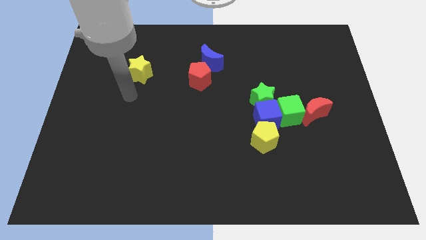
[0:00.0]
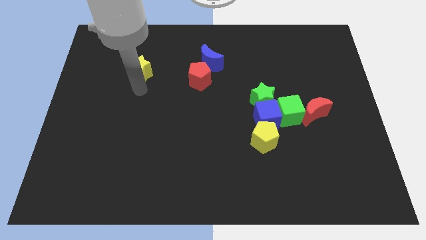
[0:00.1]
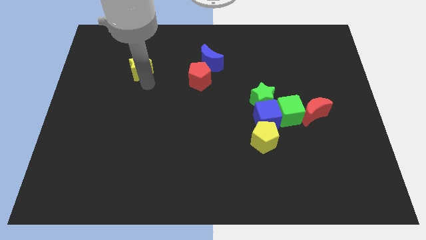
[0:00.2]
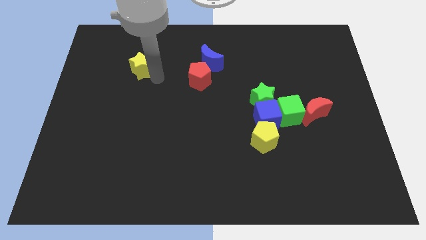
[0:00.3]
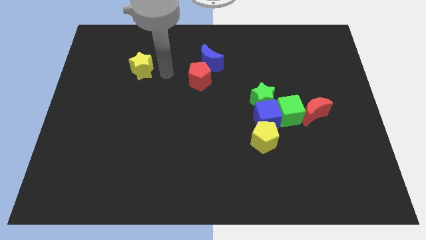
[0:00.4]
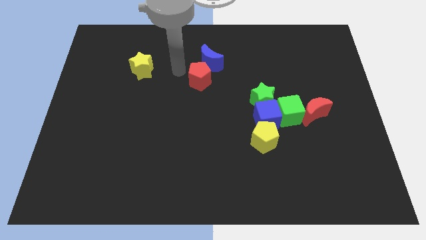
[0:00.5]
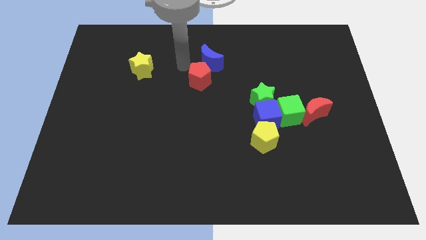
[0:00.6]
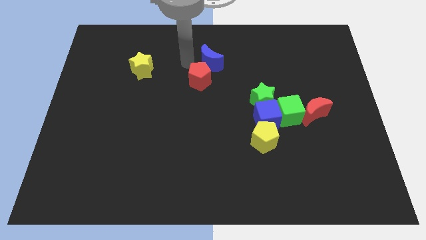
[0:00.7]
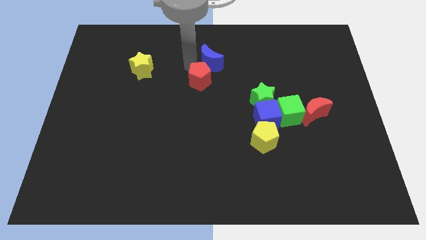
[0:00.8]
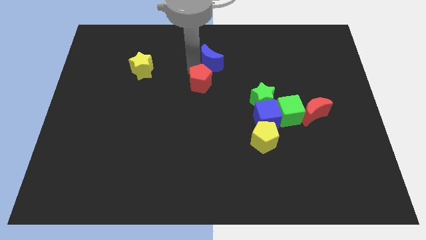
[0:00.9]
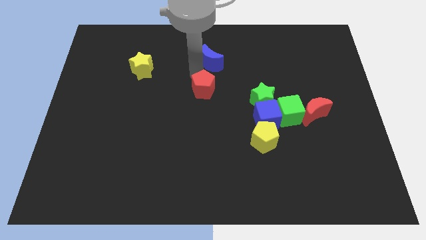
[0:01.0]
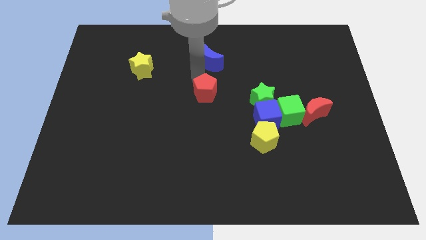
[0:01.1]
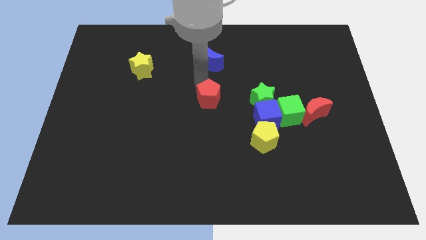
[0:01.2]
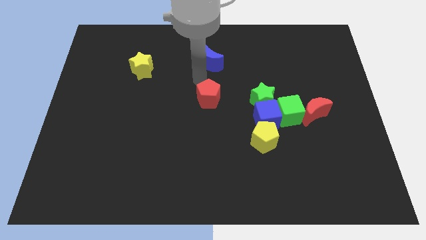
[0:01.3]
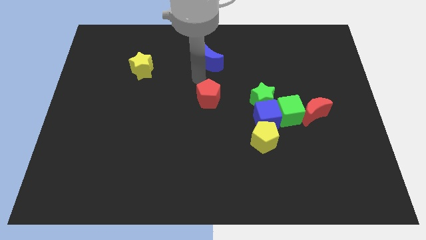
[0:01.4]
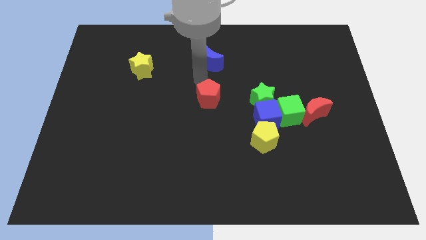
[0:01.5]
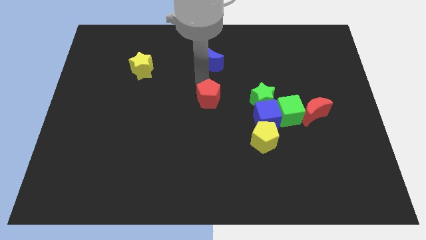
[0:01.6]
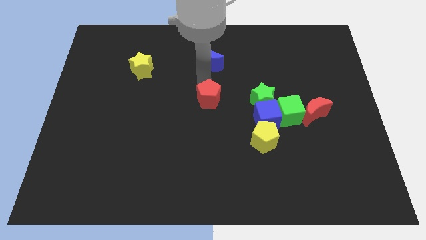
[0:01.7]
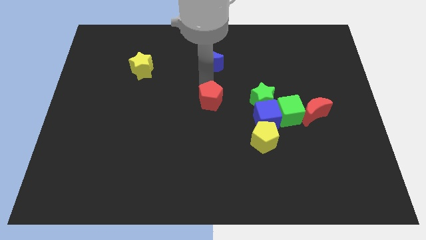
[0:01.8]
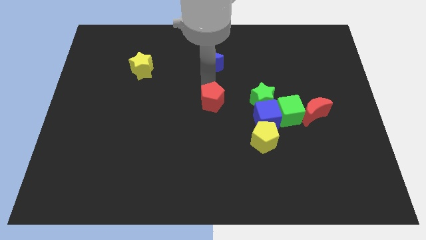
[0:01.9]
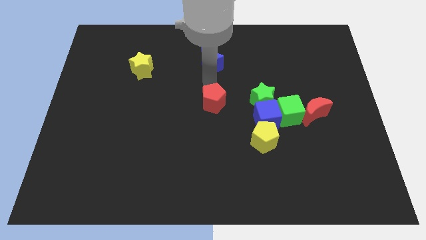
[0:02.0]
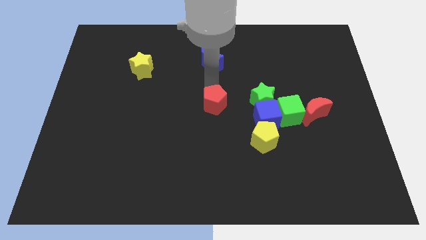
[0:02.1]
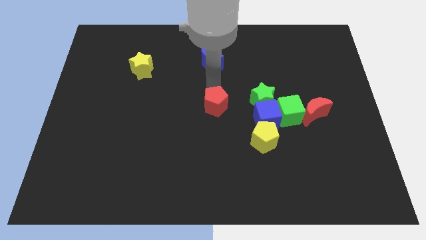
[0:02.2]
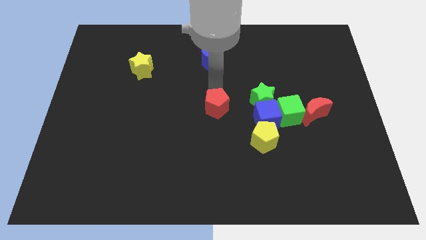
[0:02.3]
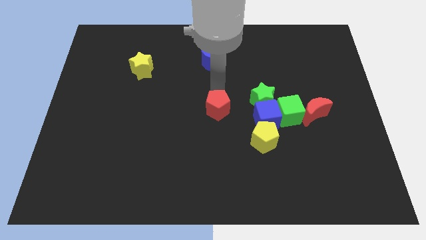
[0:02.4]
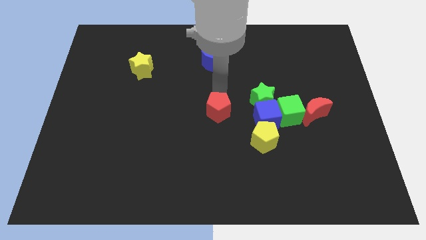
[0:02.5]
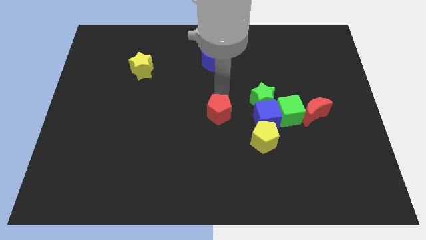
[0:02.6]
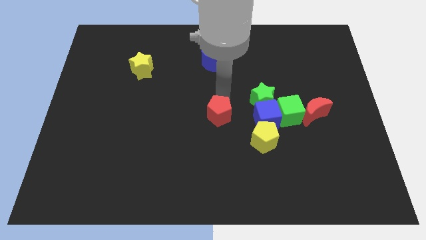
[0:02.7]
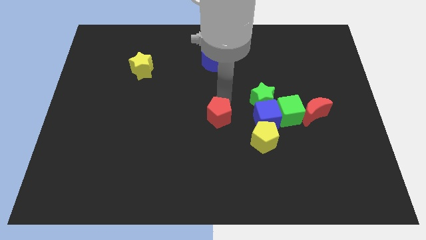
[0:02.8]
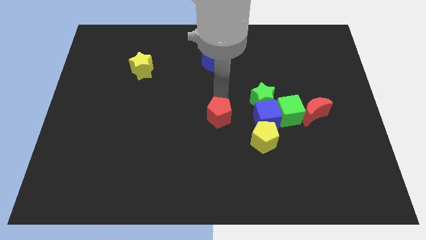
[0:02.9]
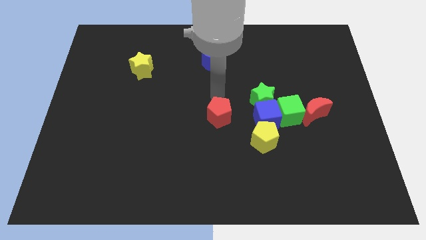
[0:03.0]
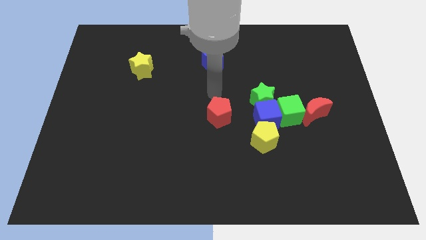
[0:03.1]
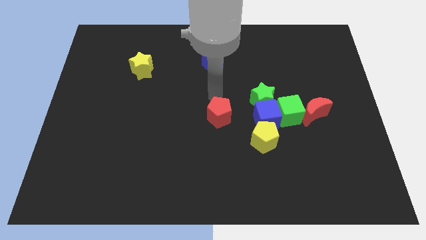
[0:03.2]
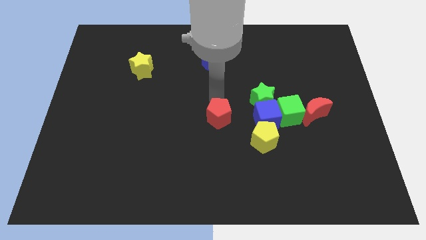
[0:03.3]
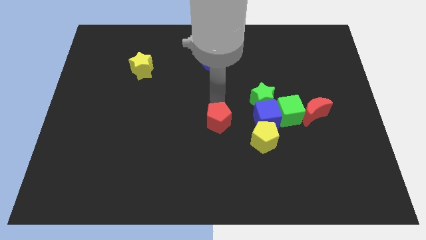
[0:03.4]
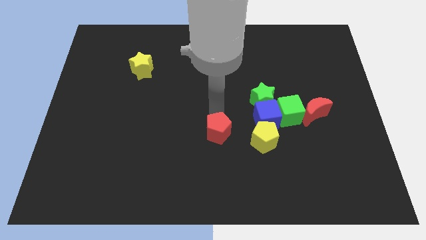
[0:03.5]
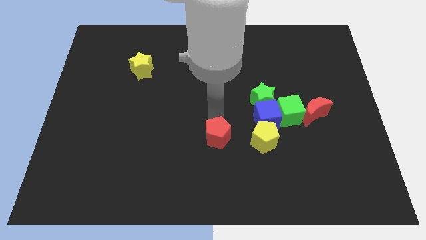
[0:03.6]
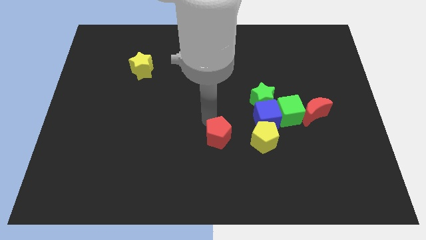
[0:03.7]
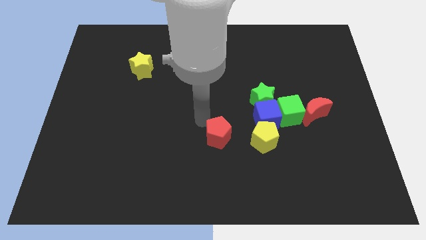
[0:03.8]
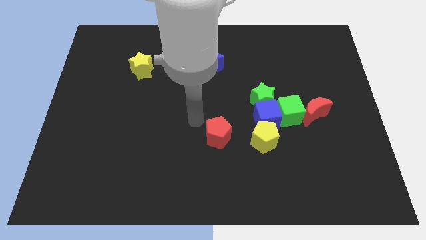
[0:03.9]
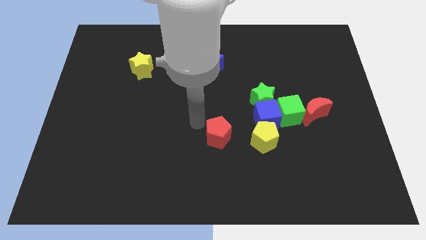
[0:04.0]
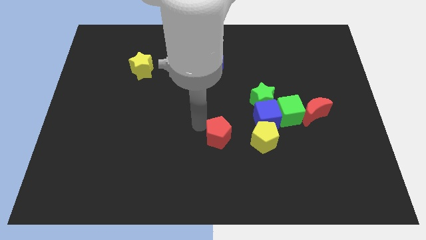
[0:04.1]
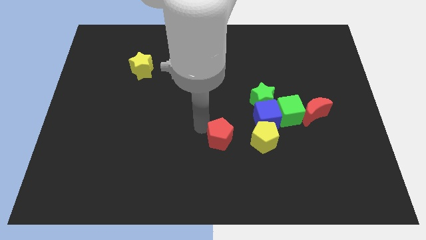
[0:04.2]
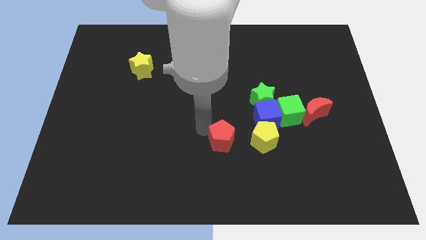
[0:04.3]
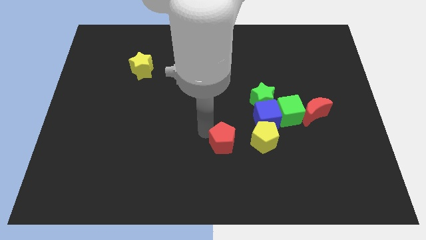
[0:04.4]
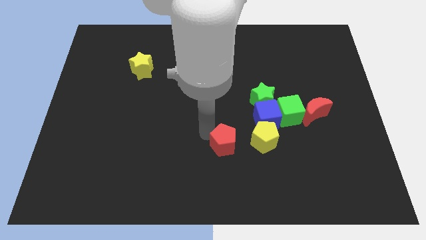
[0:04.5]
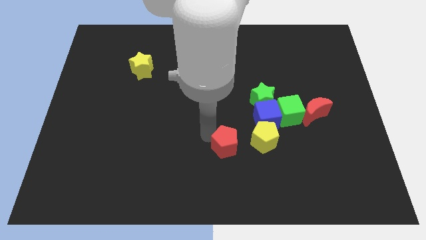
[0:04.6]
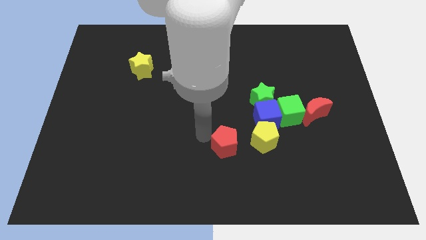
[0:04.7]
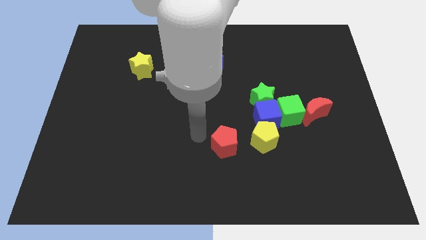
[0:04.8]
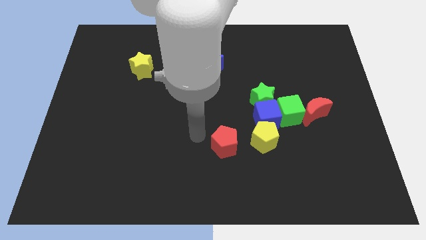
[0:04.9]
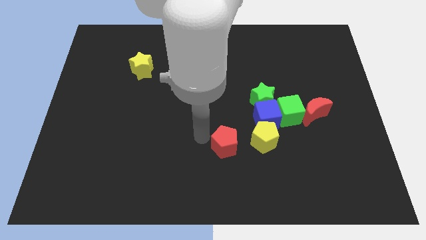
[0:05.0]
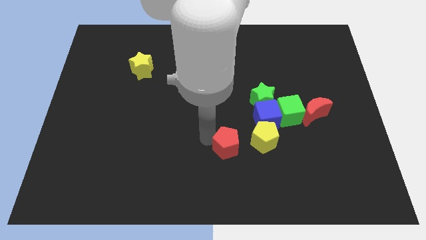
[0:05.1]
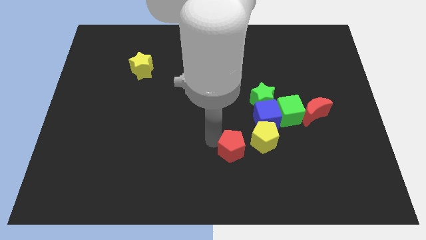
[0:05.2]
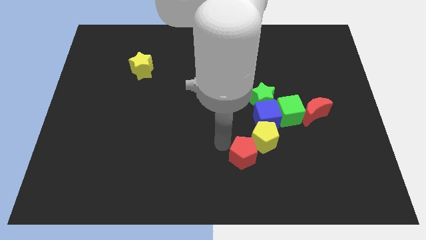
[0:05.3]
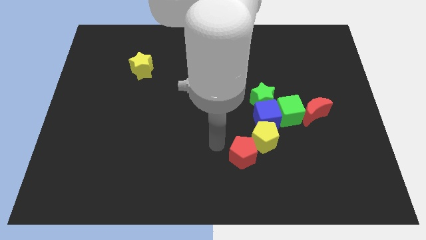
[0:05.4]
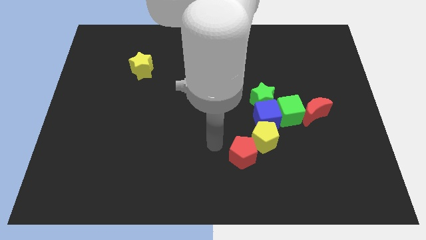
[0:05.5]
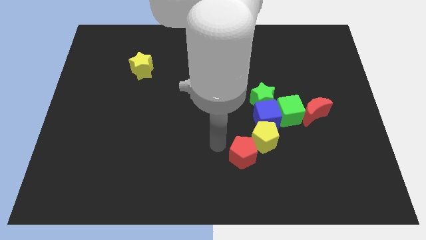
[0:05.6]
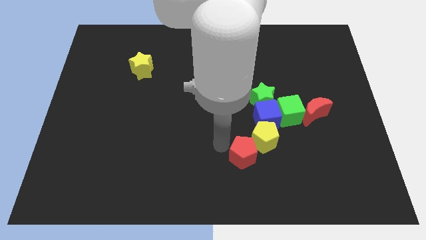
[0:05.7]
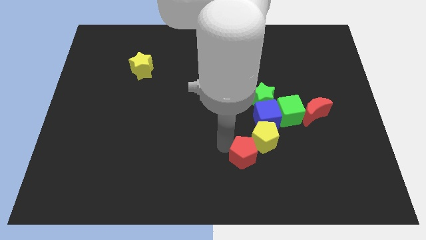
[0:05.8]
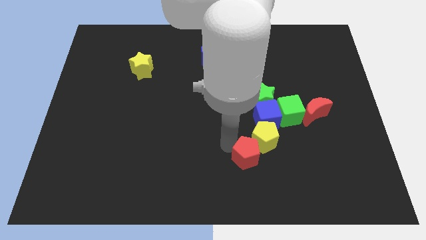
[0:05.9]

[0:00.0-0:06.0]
slide the red pentagon diagonally downwards and to the right

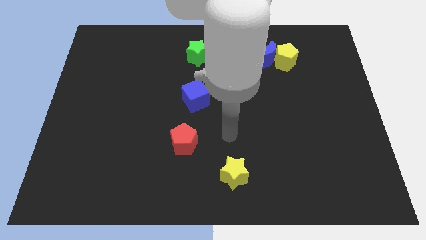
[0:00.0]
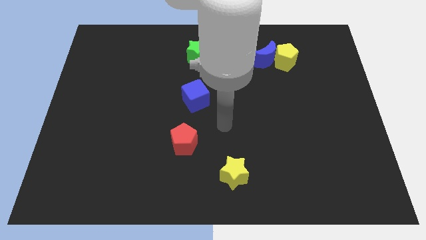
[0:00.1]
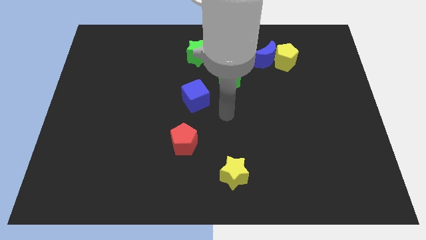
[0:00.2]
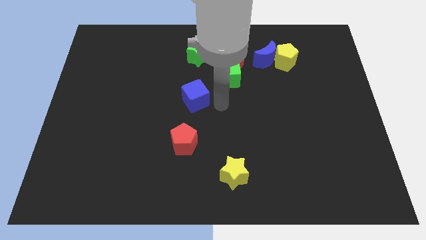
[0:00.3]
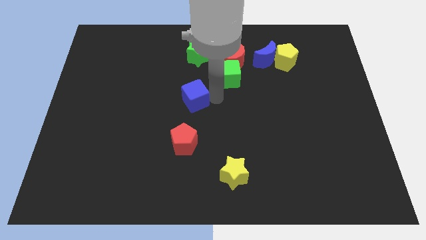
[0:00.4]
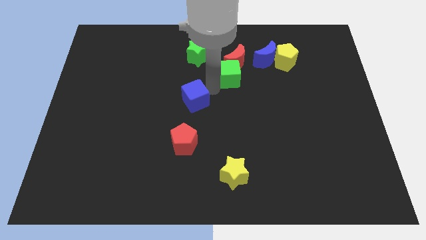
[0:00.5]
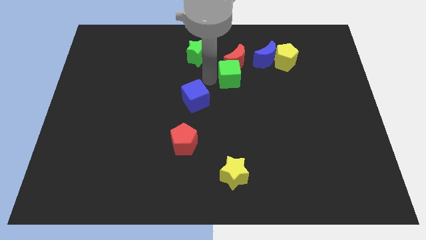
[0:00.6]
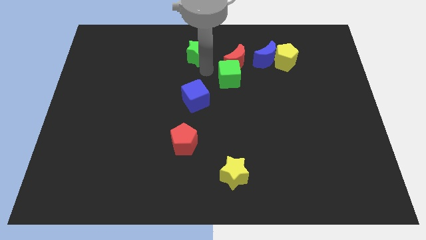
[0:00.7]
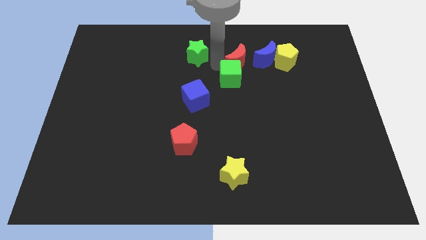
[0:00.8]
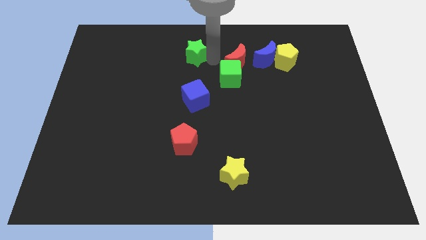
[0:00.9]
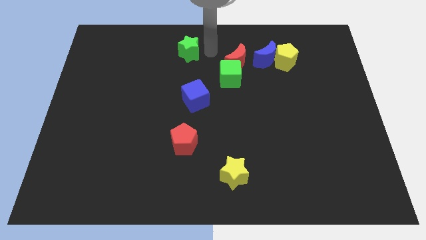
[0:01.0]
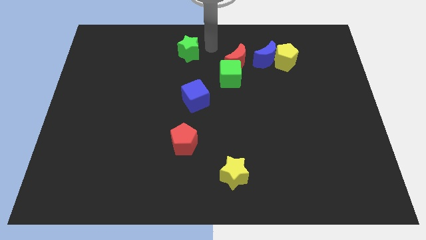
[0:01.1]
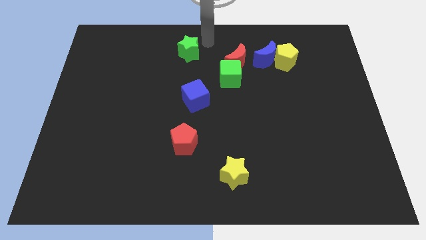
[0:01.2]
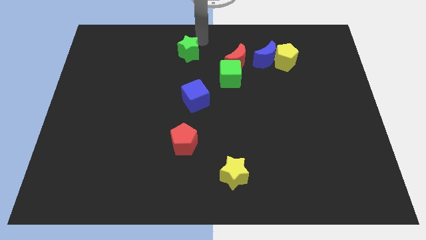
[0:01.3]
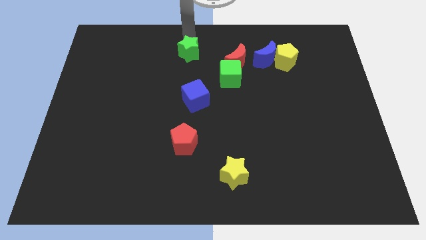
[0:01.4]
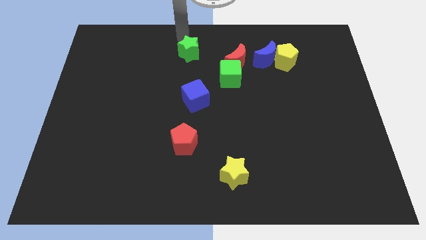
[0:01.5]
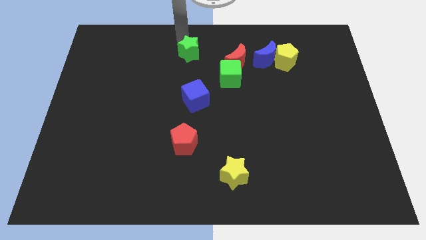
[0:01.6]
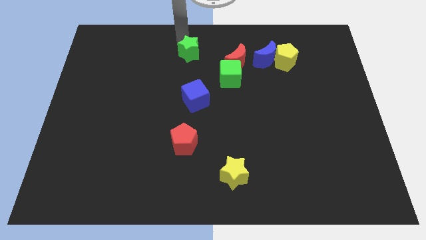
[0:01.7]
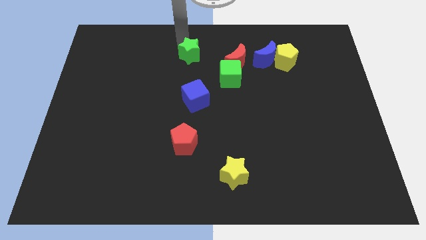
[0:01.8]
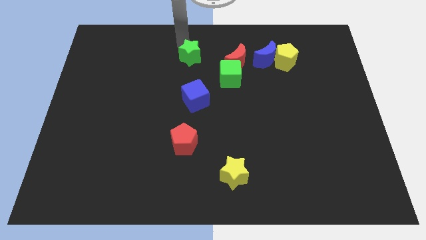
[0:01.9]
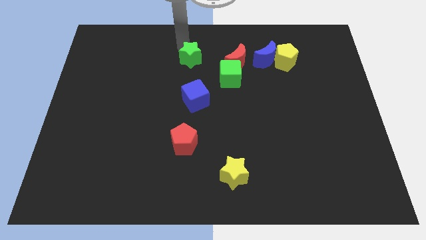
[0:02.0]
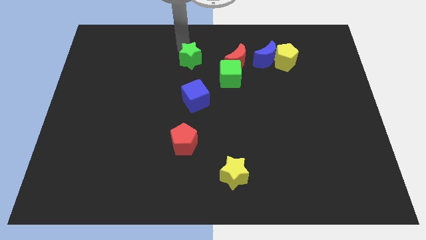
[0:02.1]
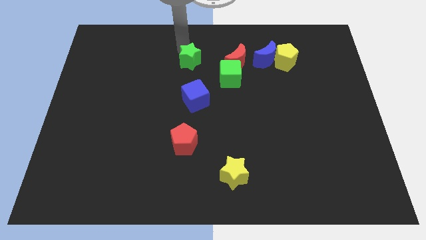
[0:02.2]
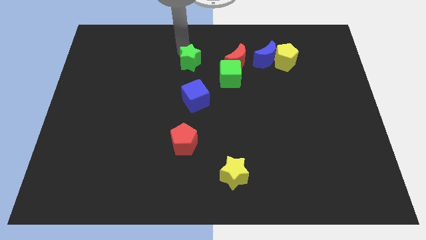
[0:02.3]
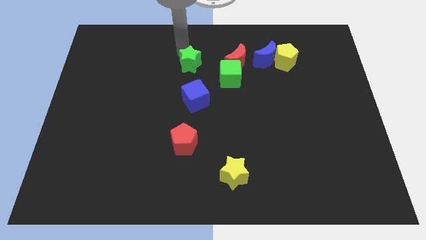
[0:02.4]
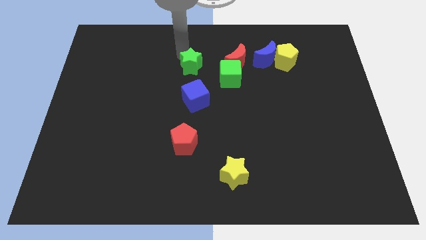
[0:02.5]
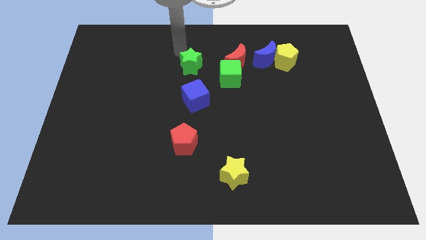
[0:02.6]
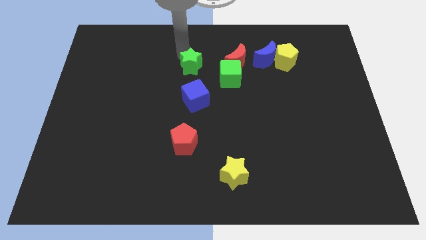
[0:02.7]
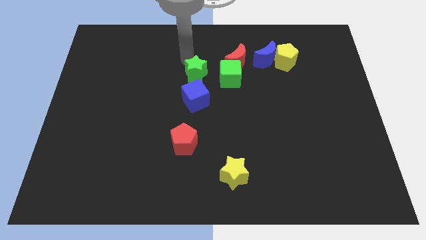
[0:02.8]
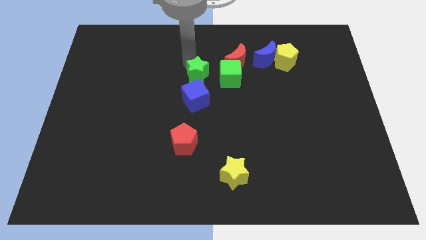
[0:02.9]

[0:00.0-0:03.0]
move the green star a little downwards
